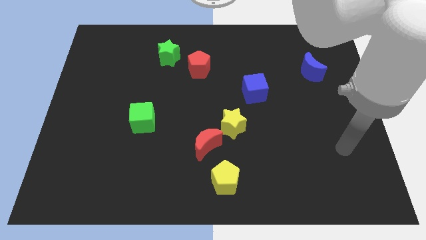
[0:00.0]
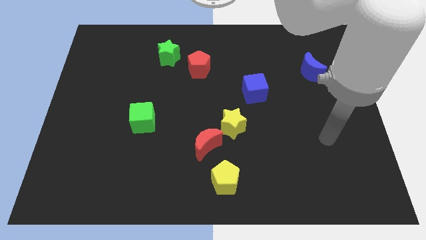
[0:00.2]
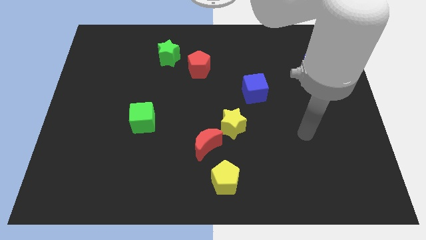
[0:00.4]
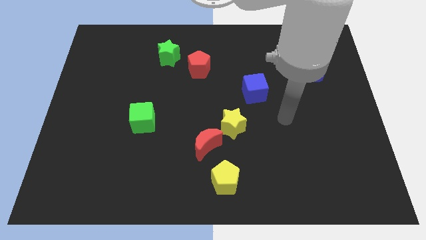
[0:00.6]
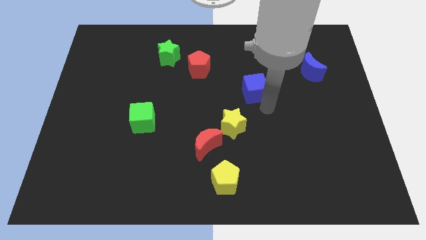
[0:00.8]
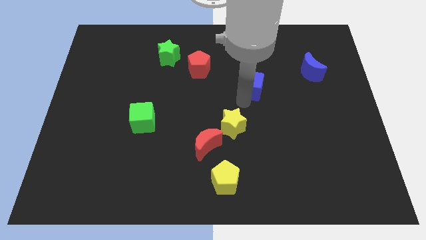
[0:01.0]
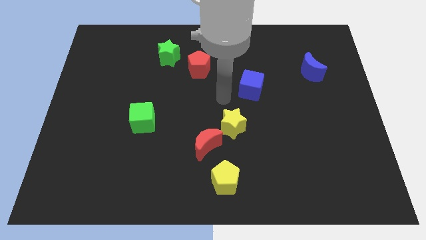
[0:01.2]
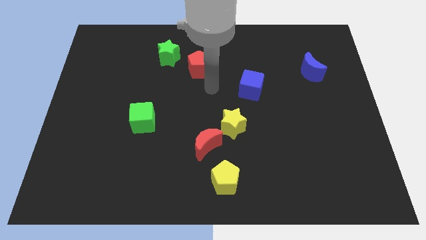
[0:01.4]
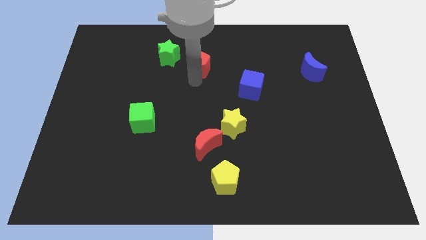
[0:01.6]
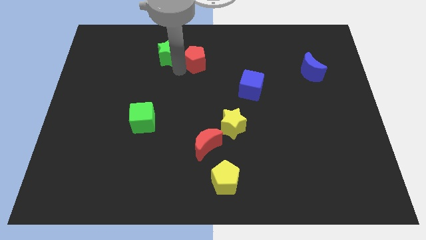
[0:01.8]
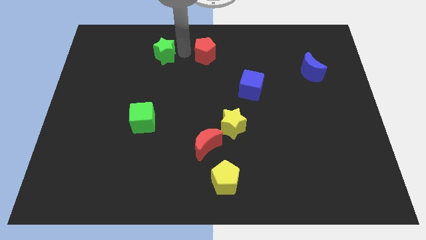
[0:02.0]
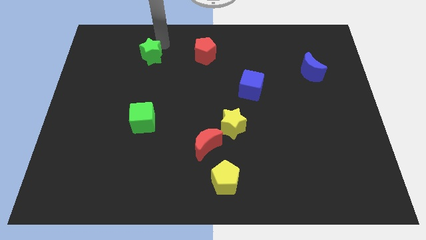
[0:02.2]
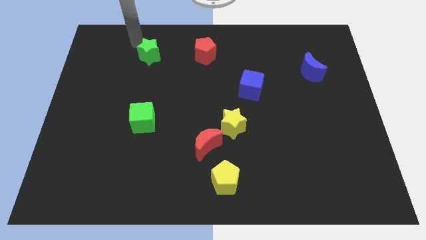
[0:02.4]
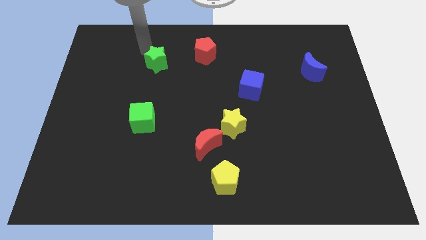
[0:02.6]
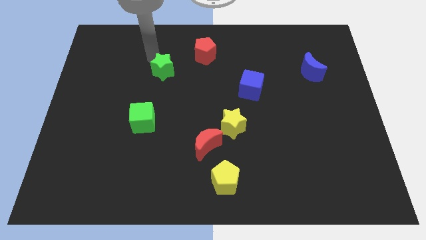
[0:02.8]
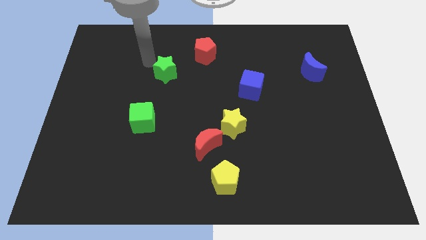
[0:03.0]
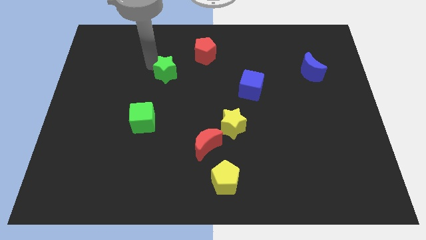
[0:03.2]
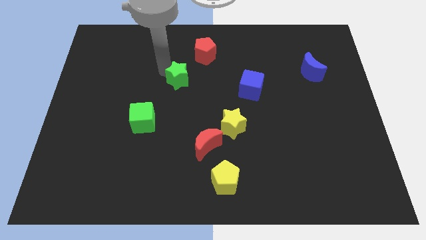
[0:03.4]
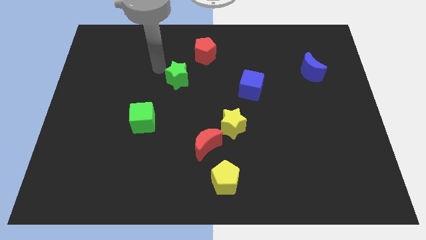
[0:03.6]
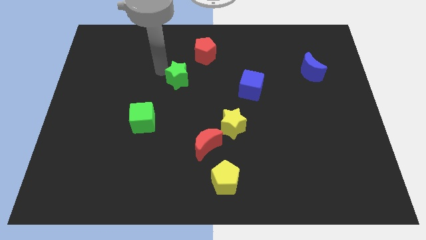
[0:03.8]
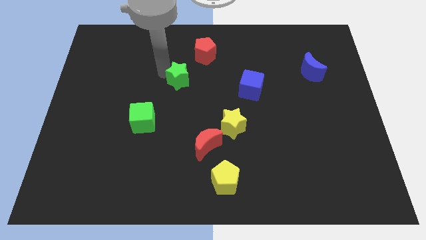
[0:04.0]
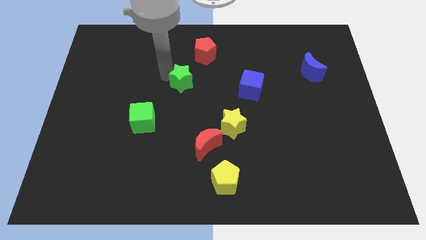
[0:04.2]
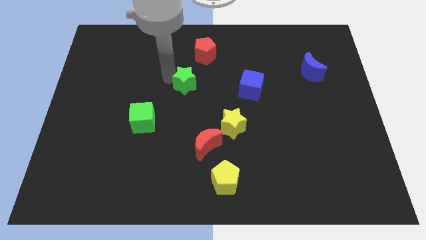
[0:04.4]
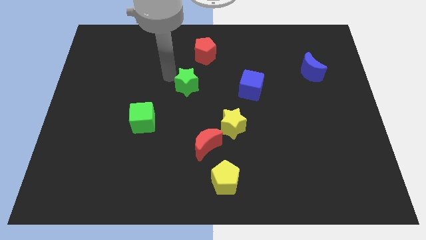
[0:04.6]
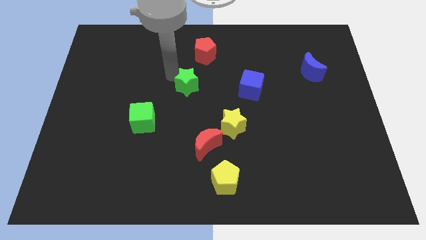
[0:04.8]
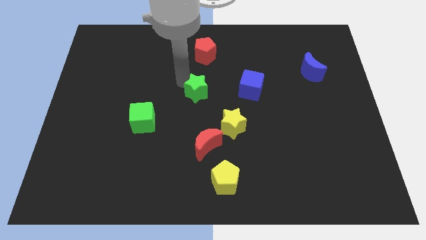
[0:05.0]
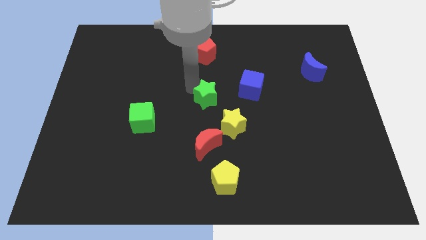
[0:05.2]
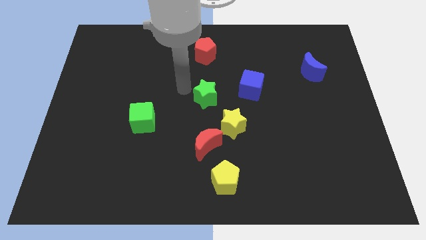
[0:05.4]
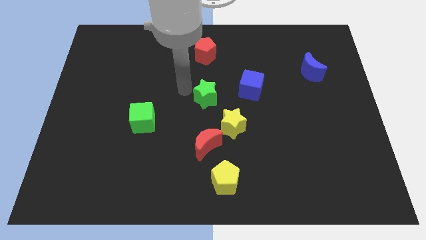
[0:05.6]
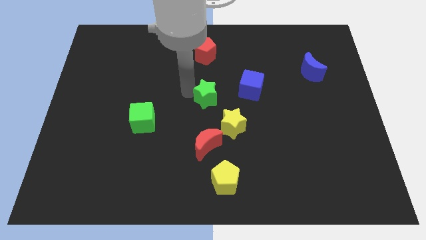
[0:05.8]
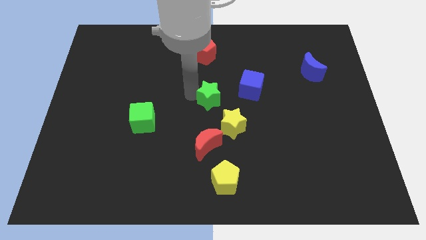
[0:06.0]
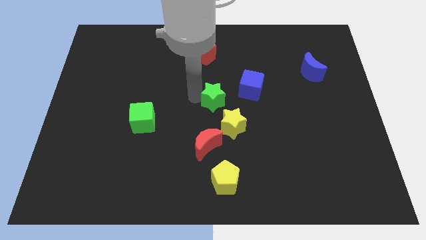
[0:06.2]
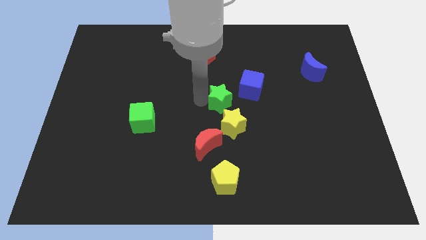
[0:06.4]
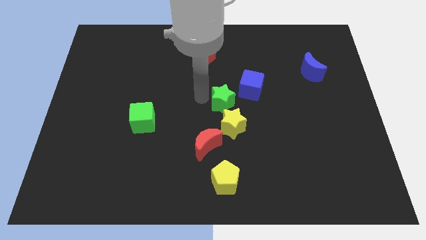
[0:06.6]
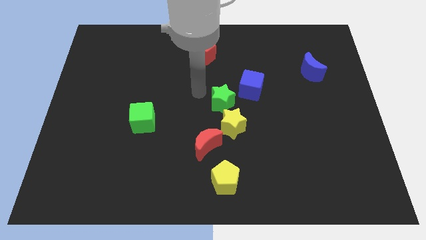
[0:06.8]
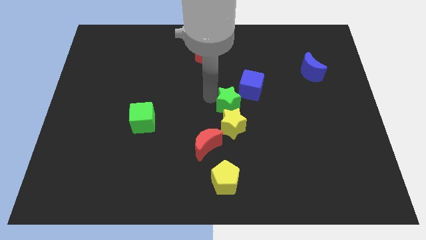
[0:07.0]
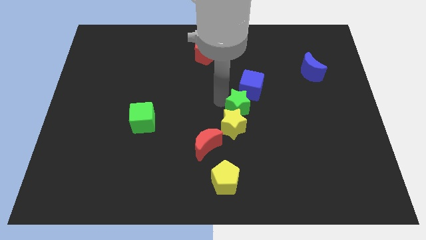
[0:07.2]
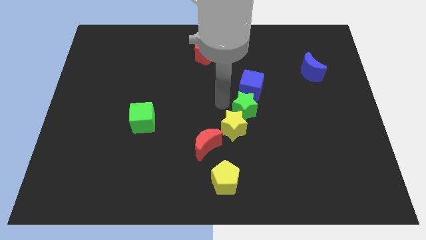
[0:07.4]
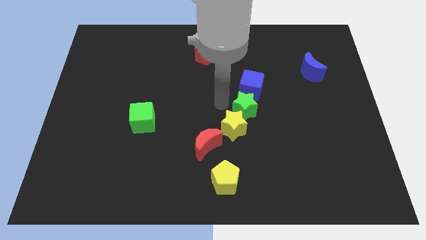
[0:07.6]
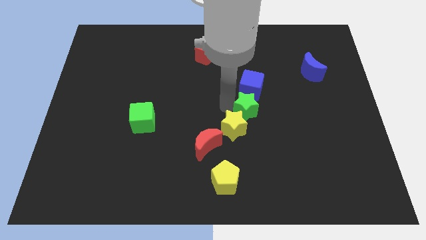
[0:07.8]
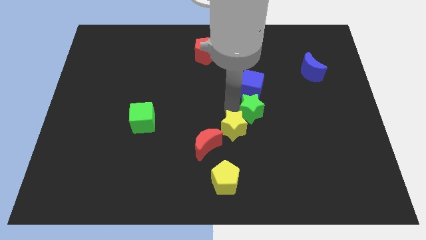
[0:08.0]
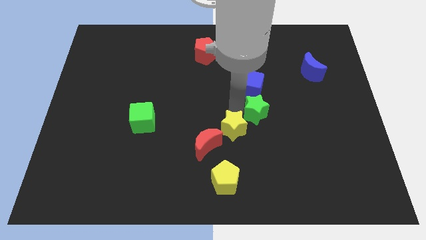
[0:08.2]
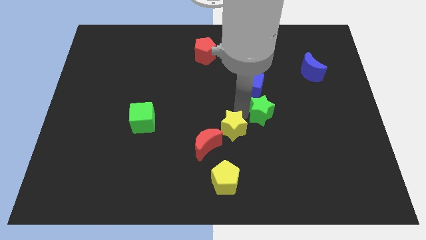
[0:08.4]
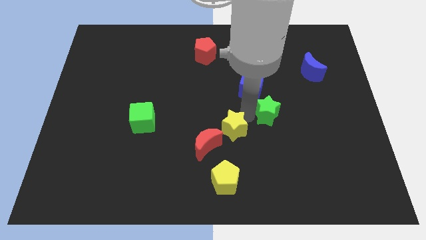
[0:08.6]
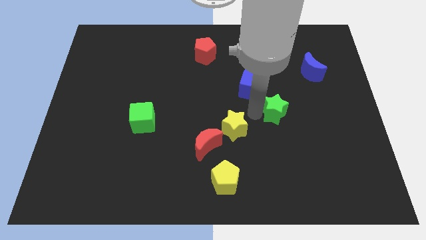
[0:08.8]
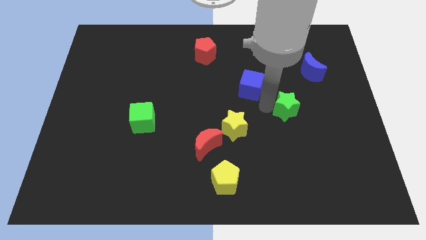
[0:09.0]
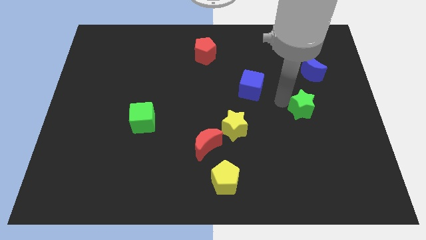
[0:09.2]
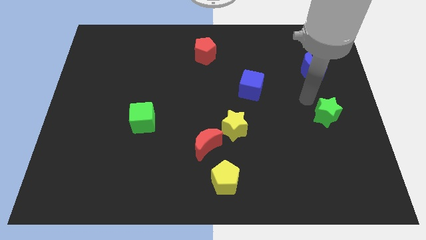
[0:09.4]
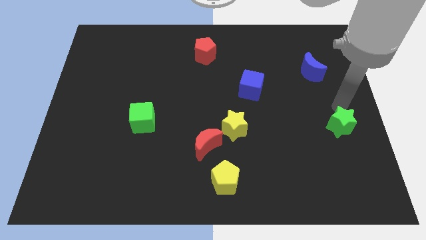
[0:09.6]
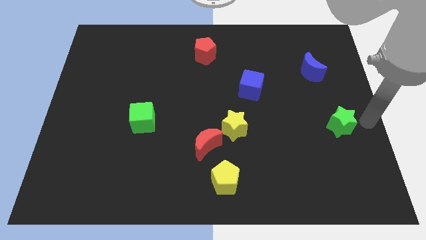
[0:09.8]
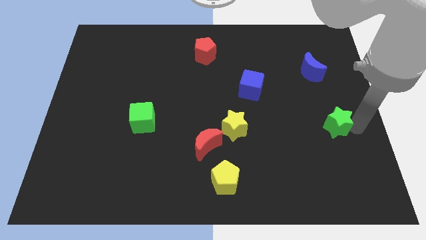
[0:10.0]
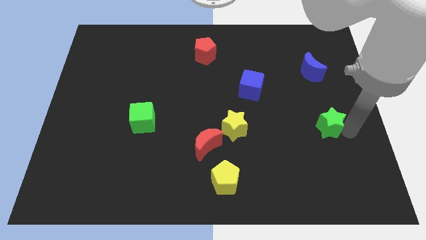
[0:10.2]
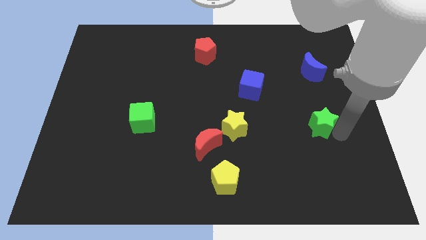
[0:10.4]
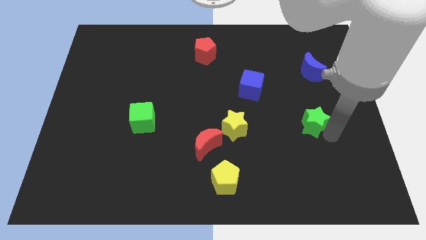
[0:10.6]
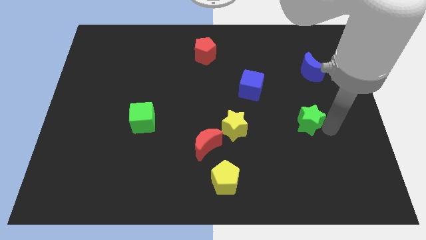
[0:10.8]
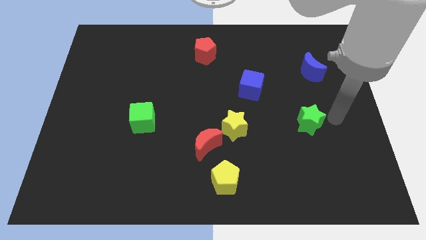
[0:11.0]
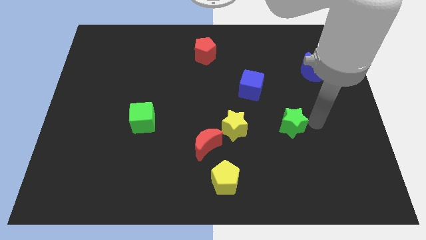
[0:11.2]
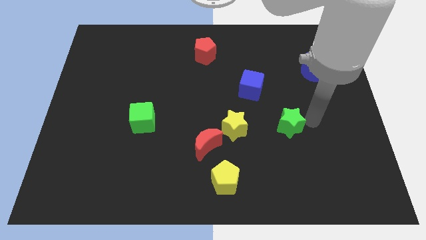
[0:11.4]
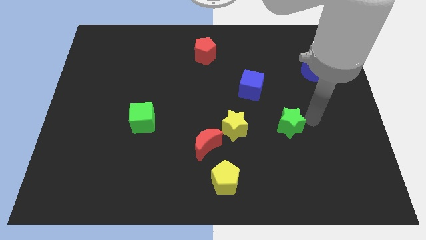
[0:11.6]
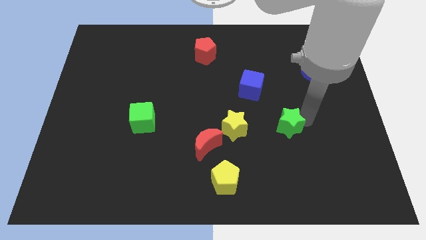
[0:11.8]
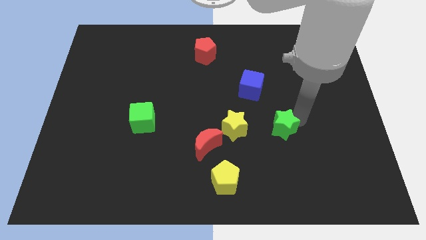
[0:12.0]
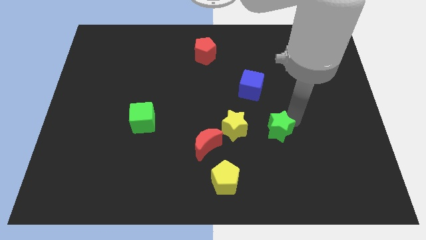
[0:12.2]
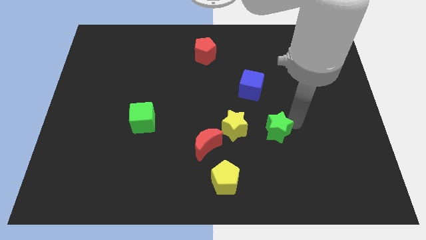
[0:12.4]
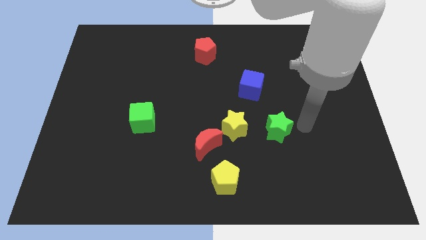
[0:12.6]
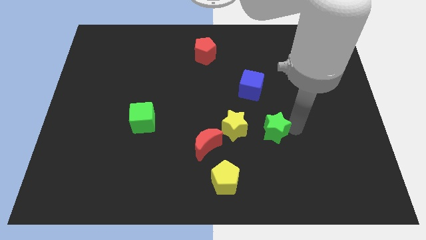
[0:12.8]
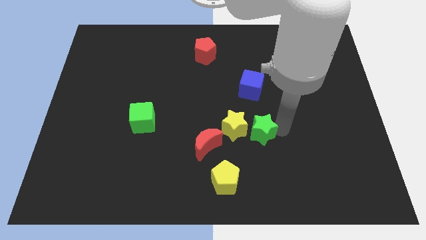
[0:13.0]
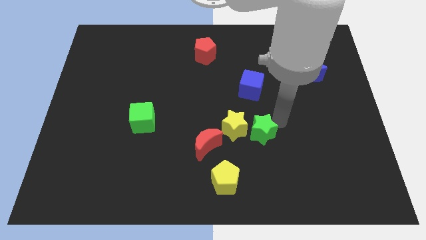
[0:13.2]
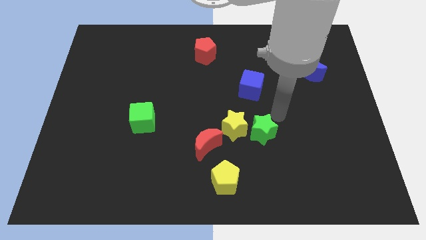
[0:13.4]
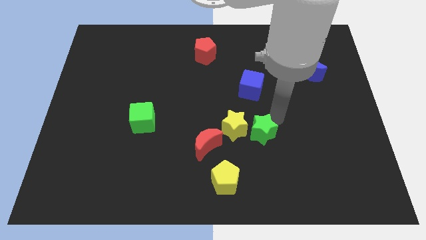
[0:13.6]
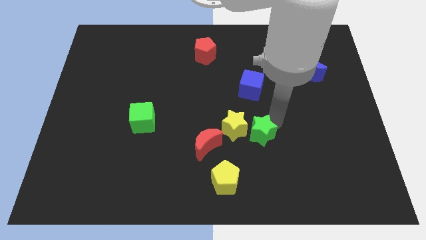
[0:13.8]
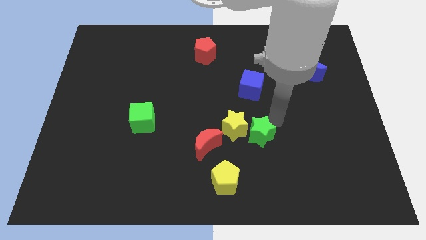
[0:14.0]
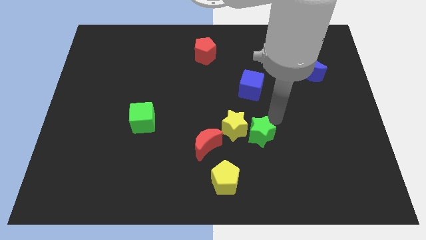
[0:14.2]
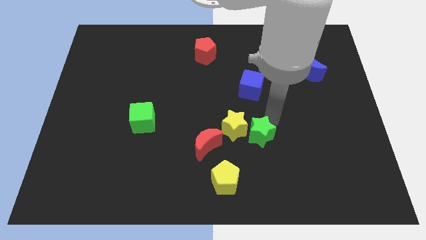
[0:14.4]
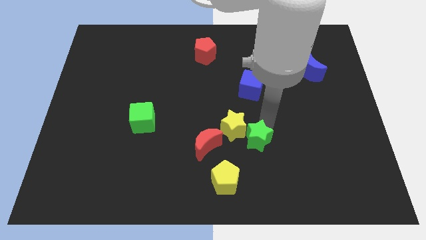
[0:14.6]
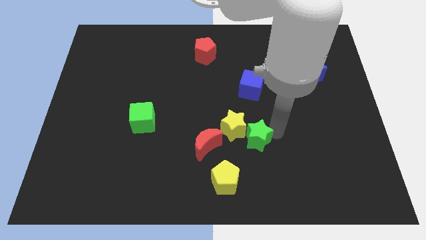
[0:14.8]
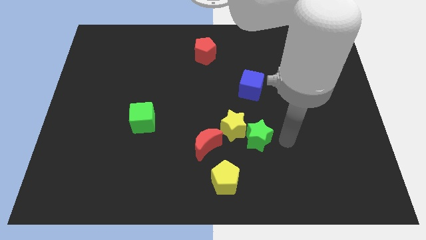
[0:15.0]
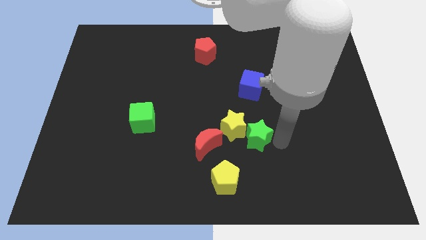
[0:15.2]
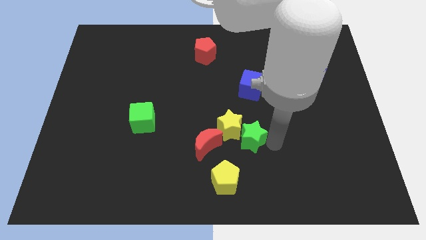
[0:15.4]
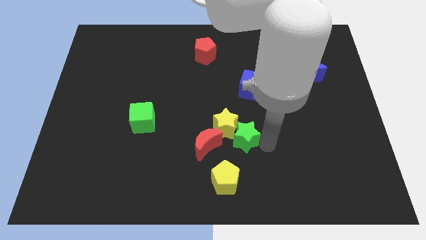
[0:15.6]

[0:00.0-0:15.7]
move the green star above the yellow pentagon
